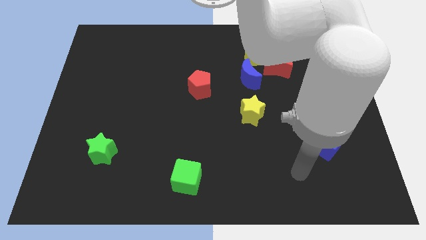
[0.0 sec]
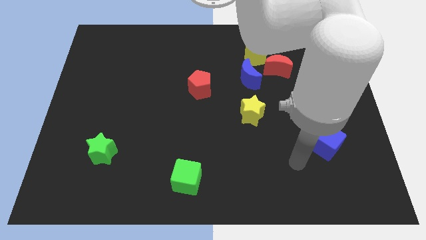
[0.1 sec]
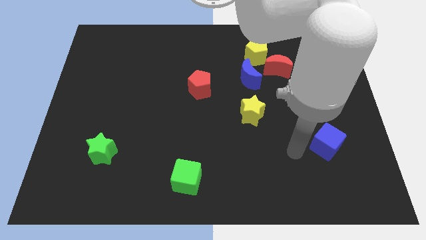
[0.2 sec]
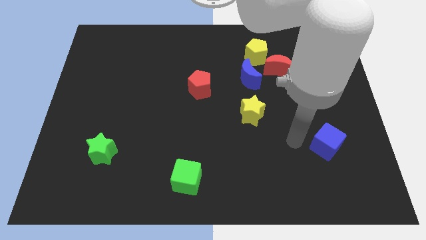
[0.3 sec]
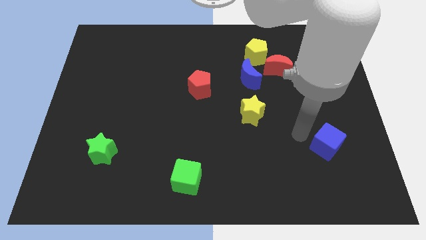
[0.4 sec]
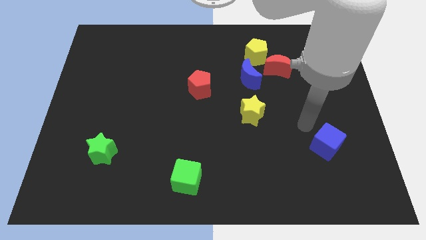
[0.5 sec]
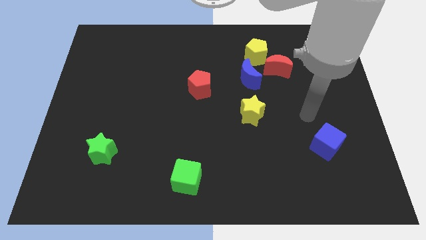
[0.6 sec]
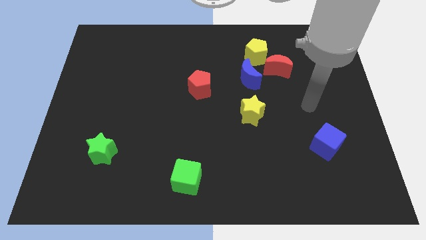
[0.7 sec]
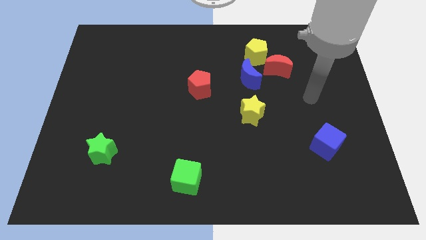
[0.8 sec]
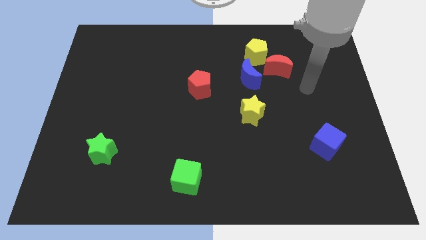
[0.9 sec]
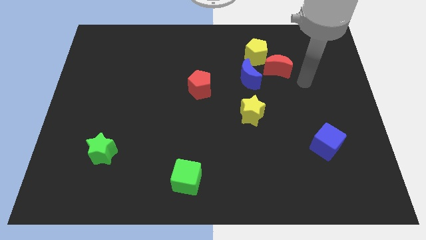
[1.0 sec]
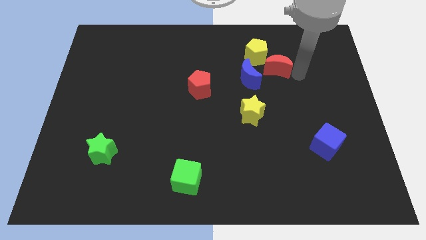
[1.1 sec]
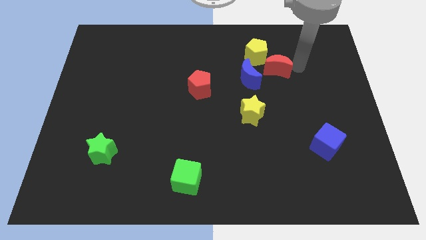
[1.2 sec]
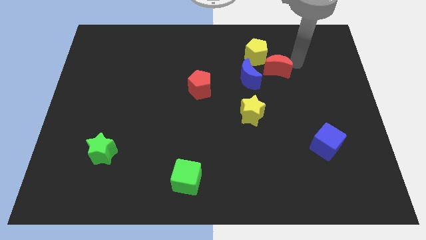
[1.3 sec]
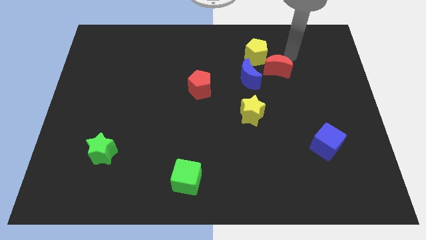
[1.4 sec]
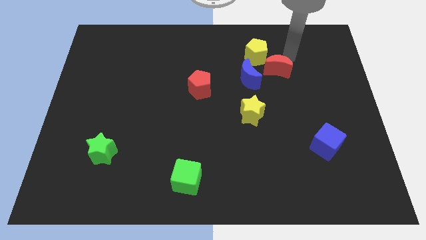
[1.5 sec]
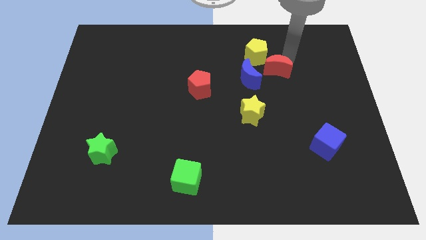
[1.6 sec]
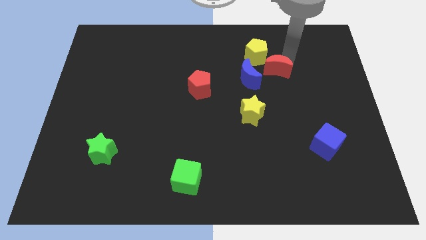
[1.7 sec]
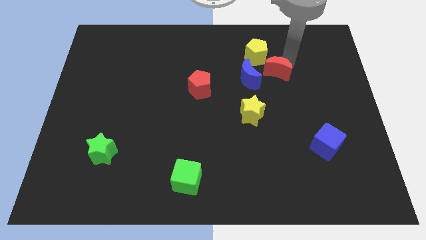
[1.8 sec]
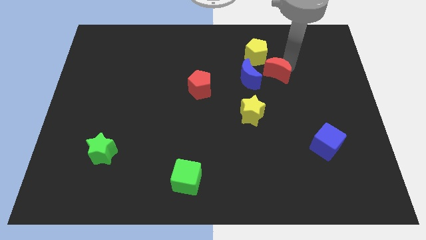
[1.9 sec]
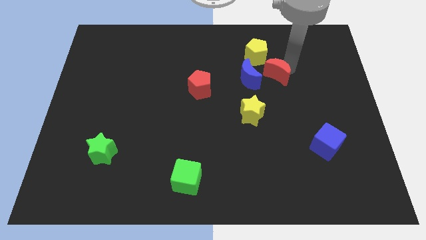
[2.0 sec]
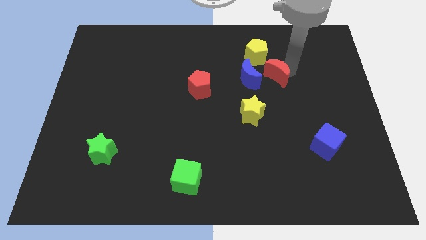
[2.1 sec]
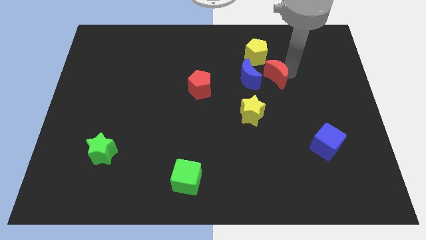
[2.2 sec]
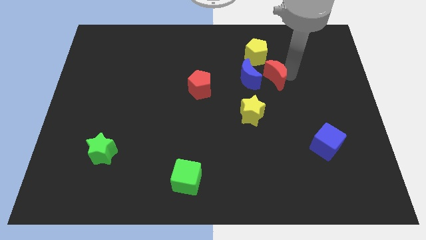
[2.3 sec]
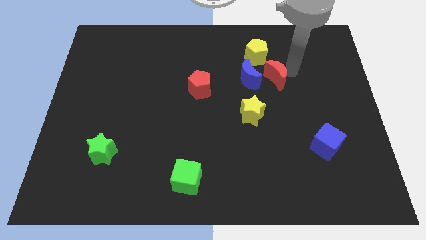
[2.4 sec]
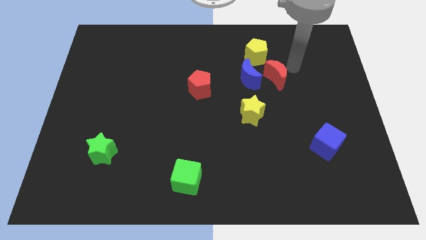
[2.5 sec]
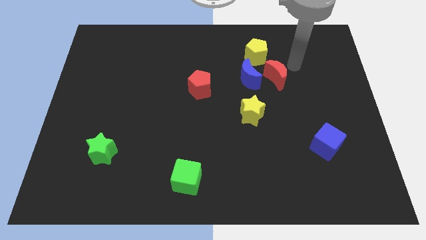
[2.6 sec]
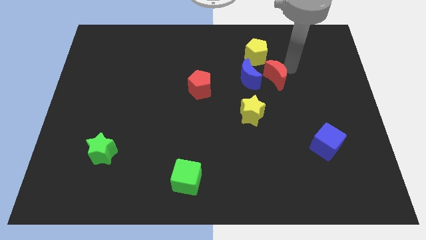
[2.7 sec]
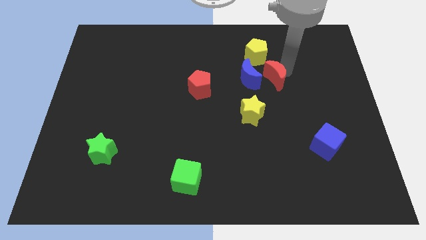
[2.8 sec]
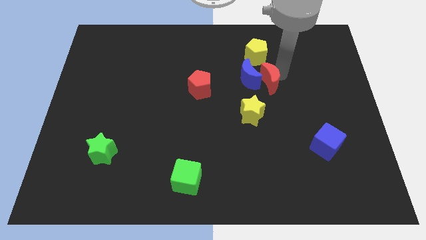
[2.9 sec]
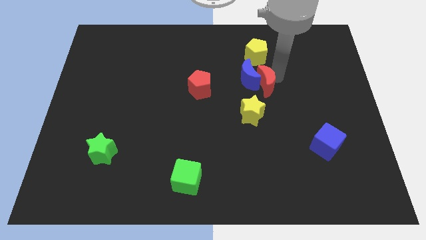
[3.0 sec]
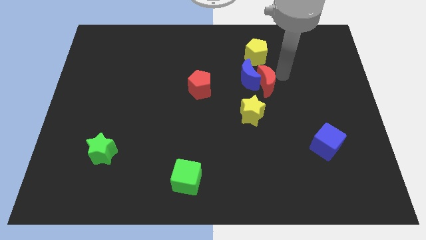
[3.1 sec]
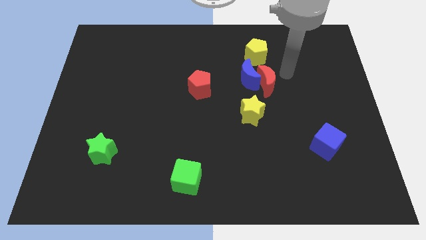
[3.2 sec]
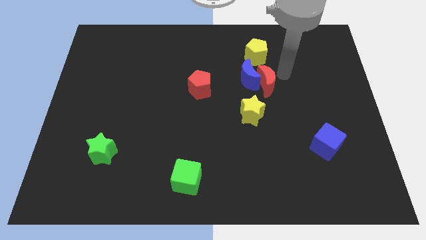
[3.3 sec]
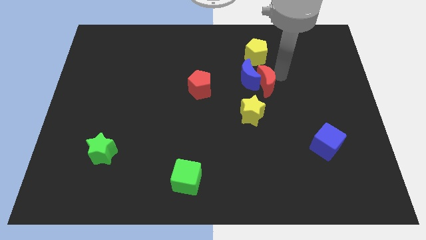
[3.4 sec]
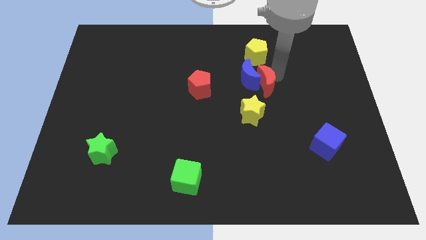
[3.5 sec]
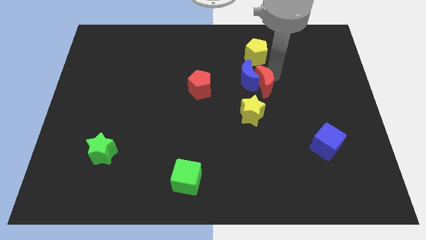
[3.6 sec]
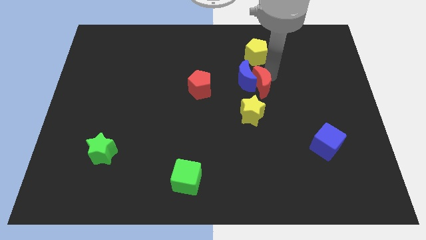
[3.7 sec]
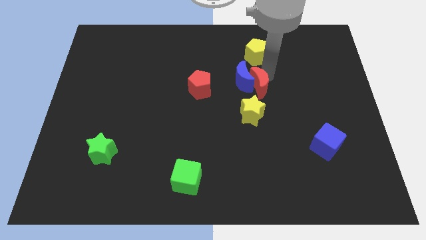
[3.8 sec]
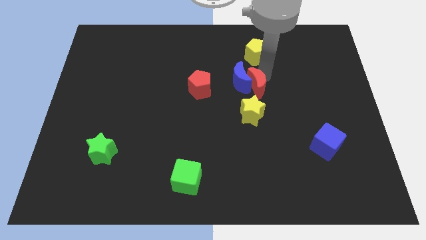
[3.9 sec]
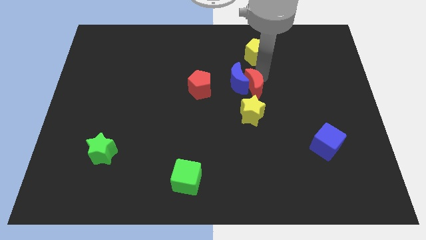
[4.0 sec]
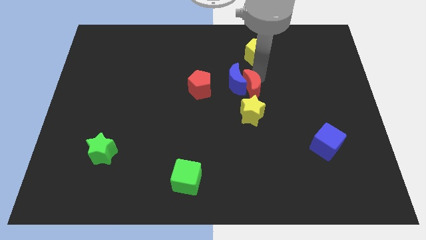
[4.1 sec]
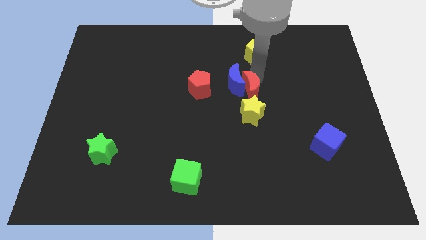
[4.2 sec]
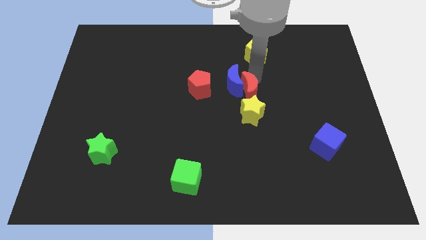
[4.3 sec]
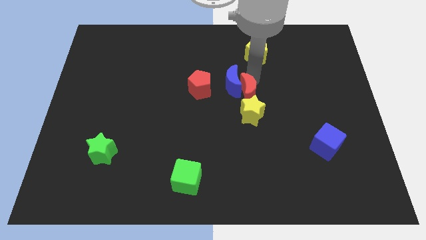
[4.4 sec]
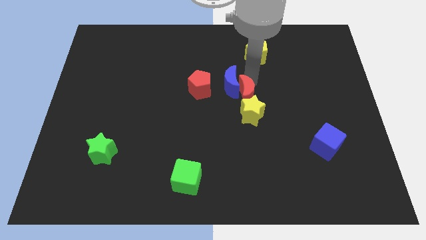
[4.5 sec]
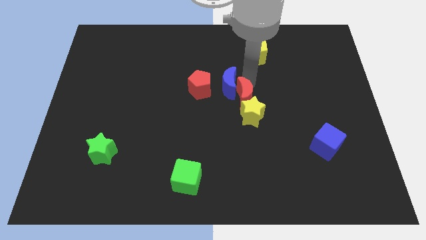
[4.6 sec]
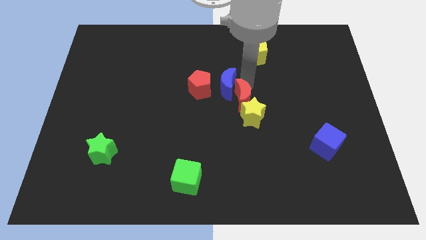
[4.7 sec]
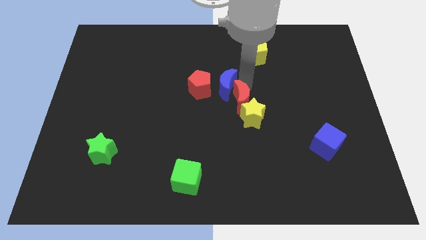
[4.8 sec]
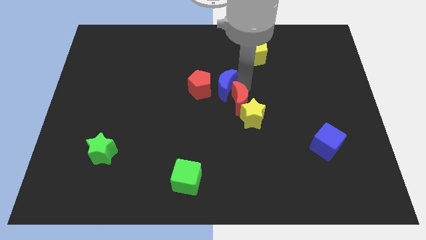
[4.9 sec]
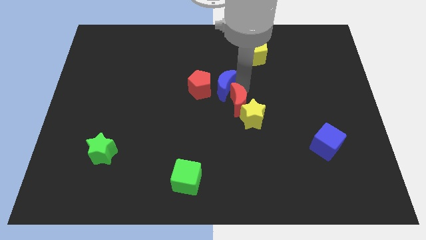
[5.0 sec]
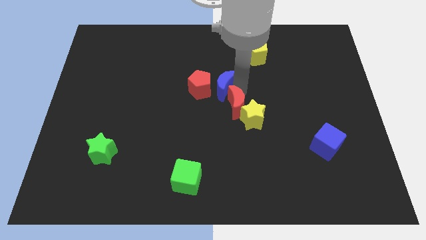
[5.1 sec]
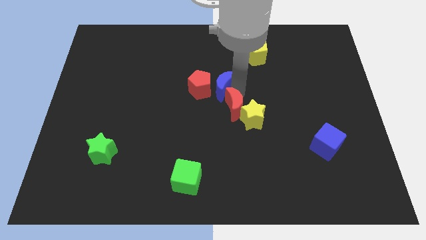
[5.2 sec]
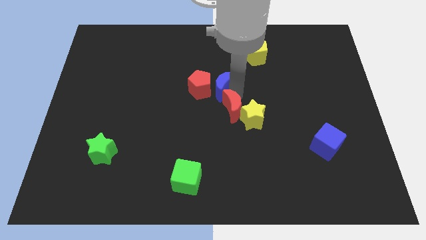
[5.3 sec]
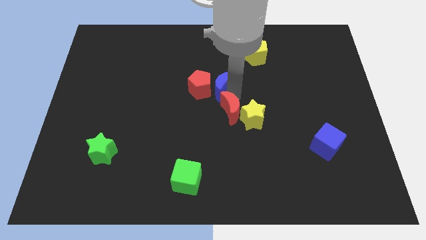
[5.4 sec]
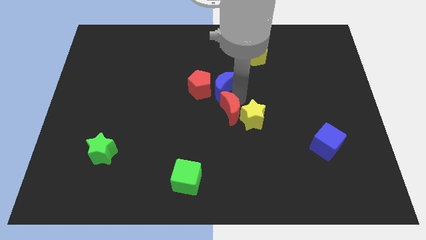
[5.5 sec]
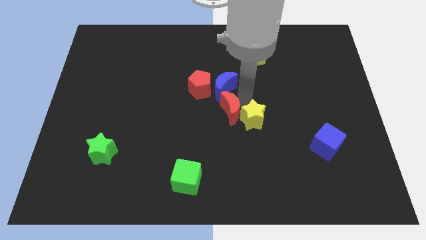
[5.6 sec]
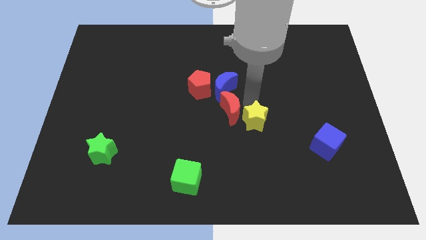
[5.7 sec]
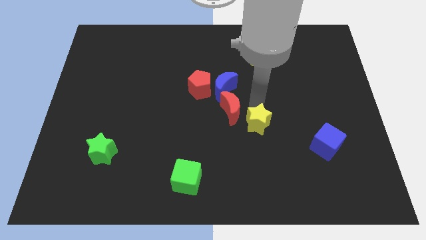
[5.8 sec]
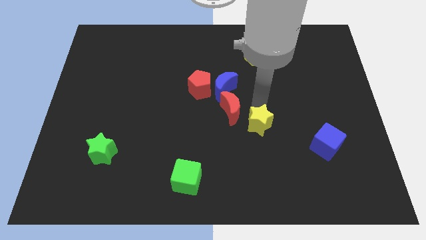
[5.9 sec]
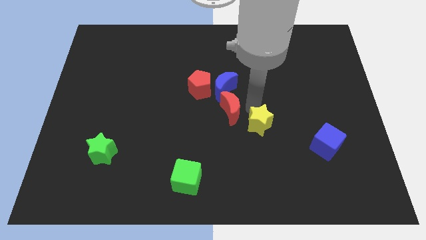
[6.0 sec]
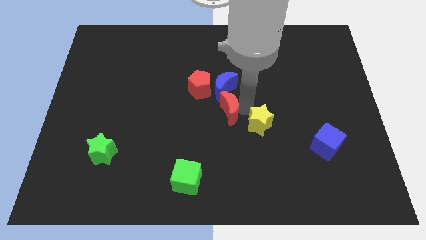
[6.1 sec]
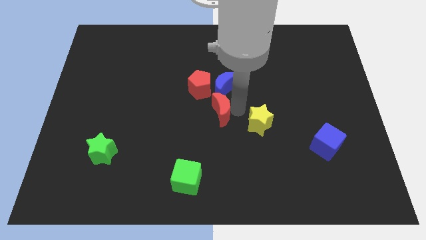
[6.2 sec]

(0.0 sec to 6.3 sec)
move the red moon down and then left

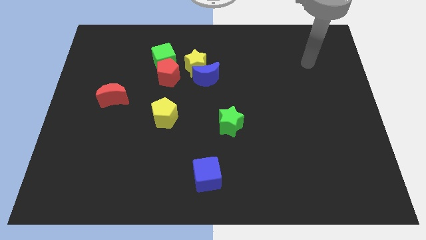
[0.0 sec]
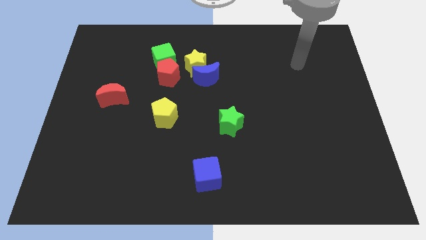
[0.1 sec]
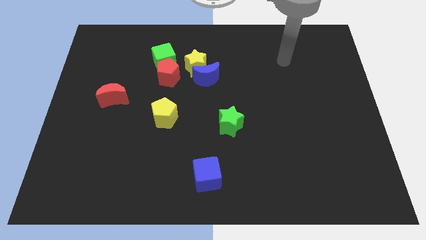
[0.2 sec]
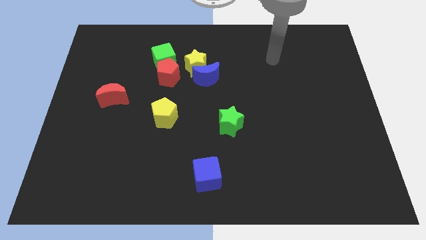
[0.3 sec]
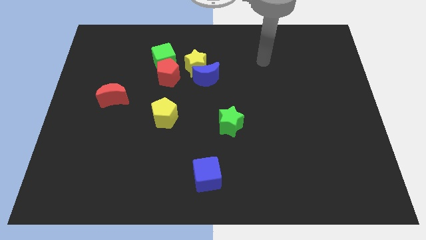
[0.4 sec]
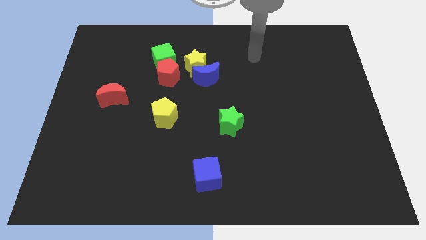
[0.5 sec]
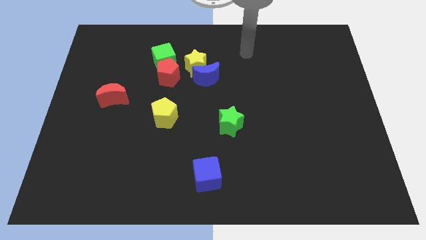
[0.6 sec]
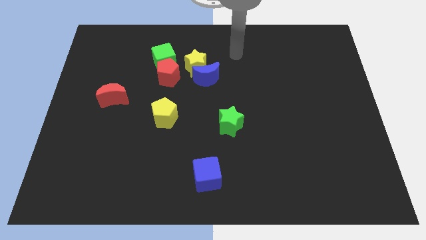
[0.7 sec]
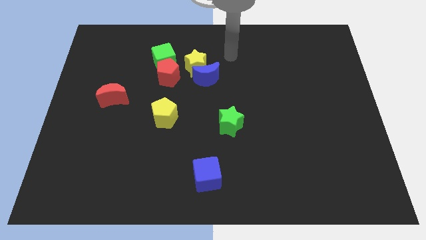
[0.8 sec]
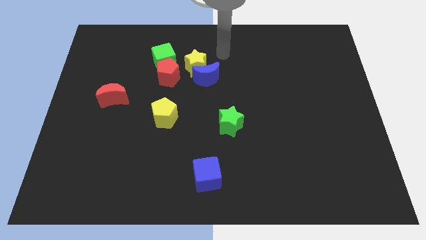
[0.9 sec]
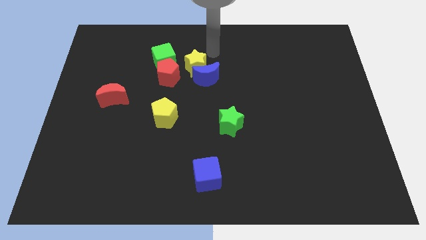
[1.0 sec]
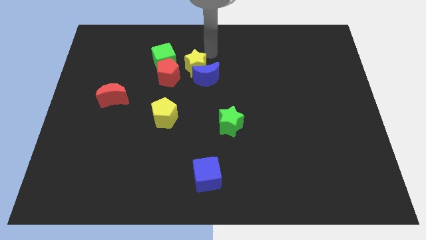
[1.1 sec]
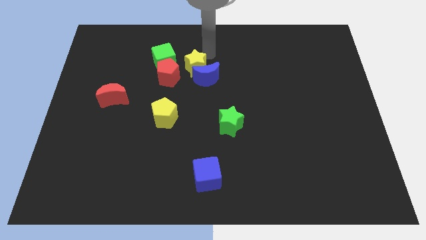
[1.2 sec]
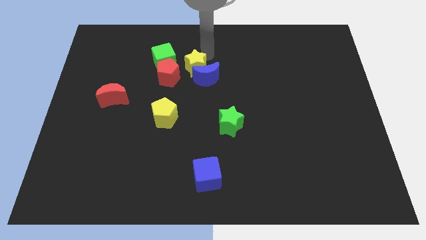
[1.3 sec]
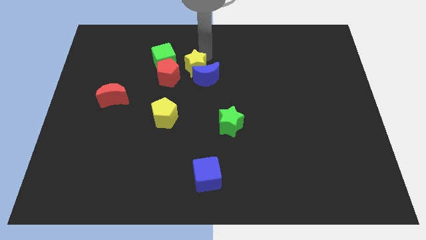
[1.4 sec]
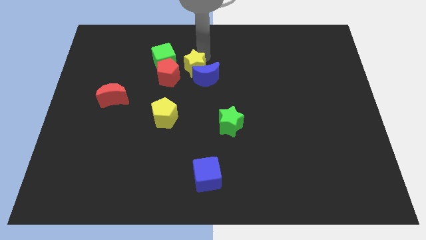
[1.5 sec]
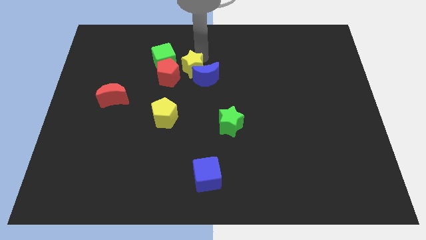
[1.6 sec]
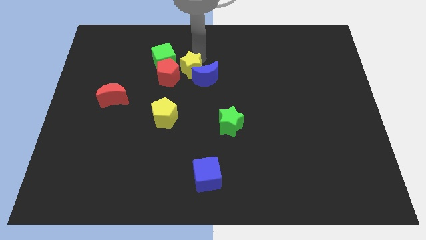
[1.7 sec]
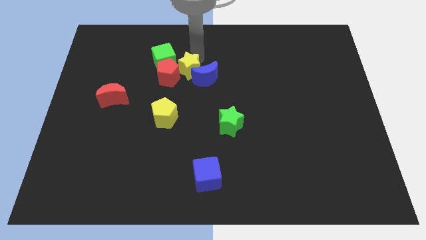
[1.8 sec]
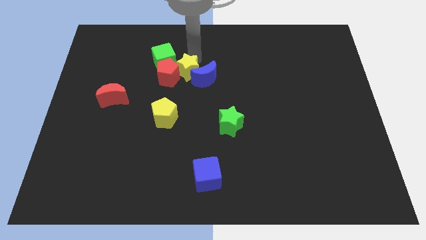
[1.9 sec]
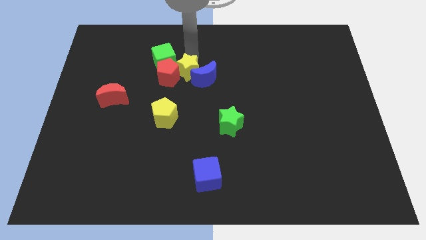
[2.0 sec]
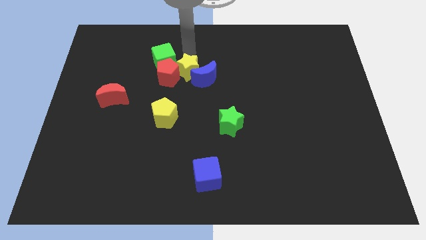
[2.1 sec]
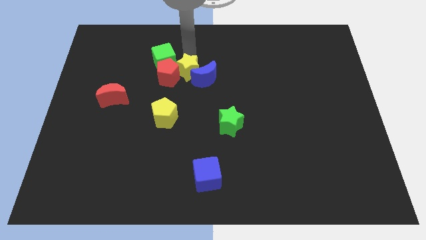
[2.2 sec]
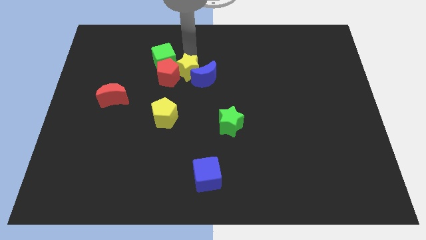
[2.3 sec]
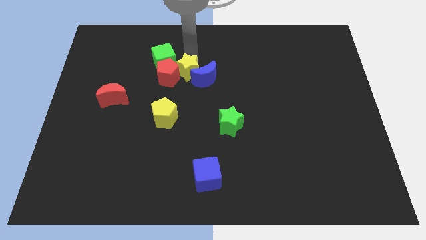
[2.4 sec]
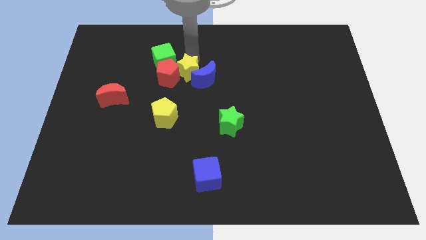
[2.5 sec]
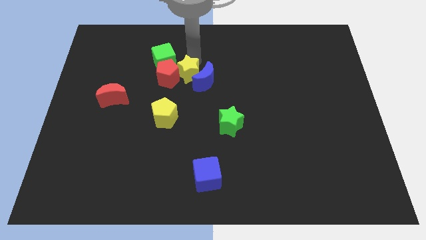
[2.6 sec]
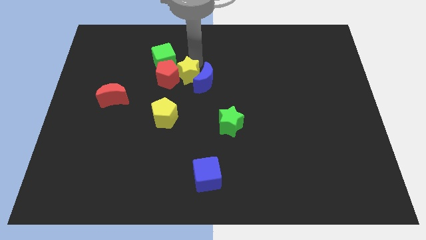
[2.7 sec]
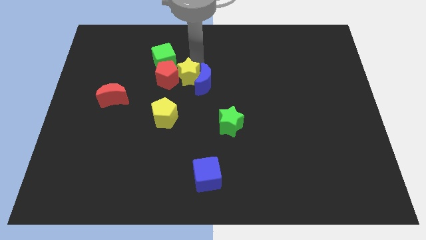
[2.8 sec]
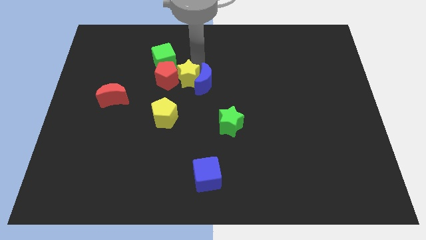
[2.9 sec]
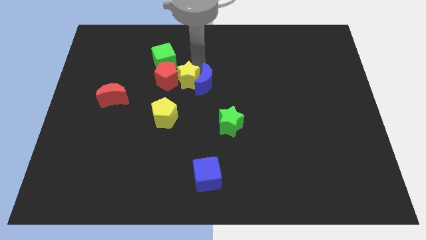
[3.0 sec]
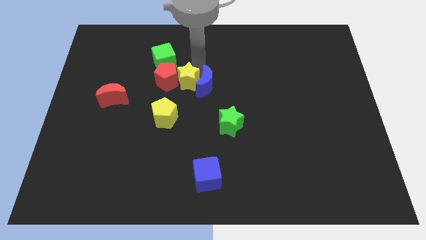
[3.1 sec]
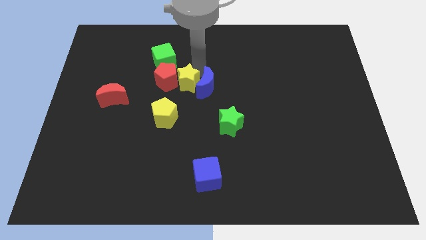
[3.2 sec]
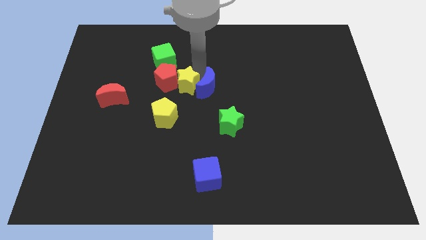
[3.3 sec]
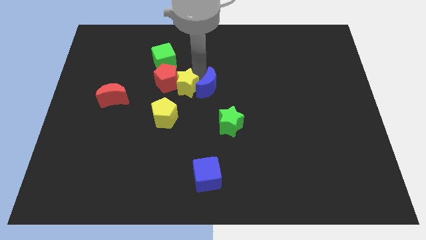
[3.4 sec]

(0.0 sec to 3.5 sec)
push the yellow star a bit down
